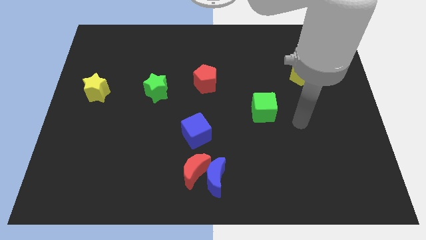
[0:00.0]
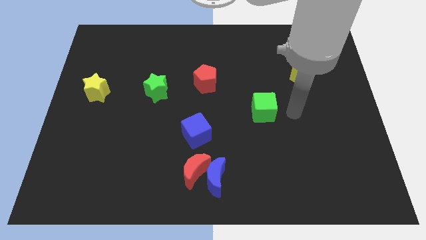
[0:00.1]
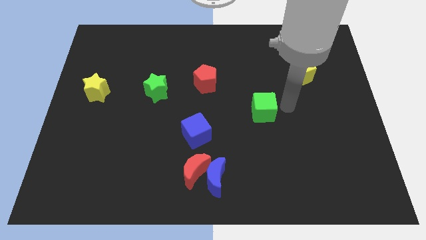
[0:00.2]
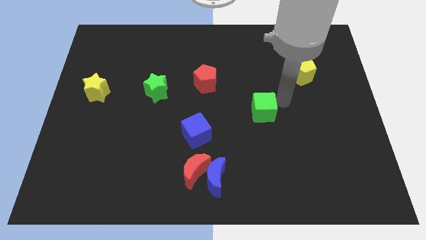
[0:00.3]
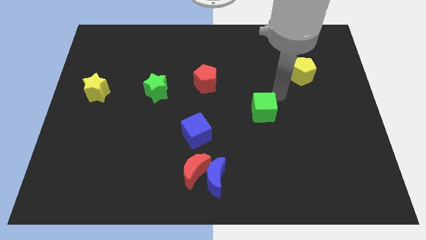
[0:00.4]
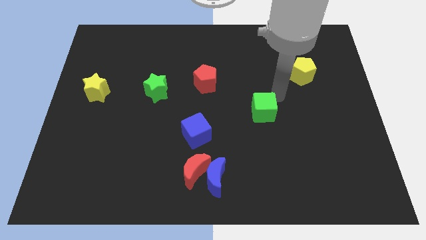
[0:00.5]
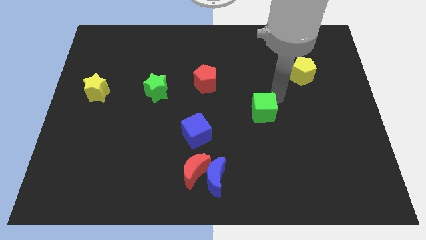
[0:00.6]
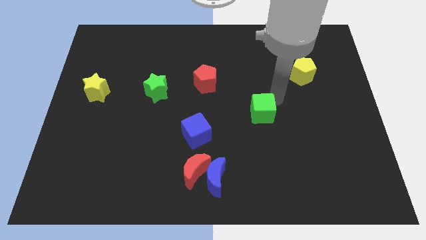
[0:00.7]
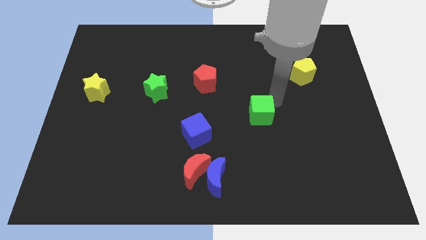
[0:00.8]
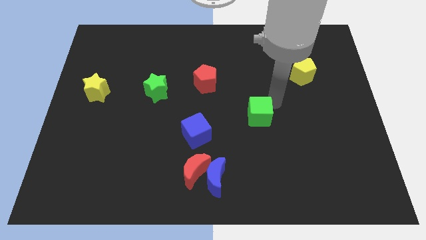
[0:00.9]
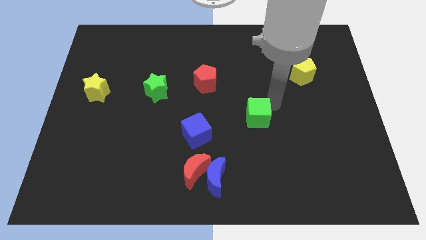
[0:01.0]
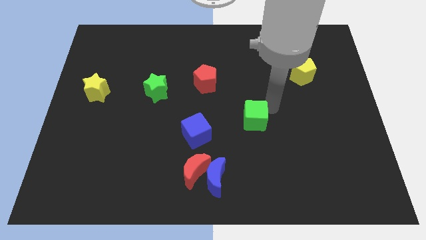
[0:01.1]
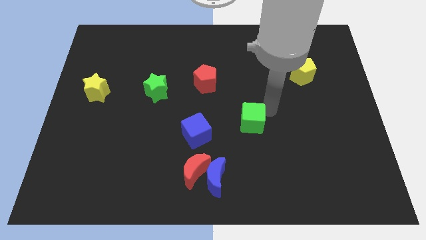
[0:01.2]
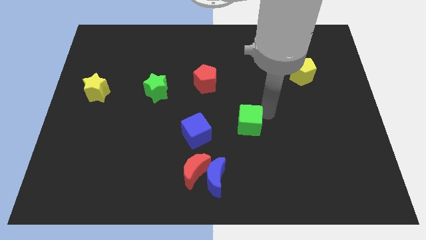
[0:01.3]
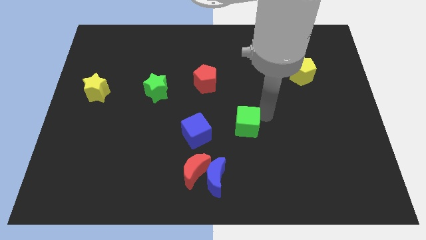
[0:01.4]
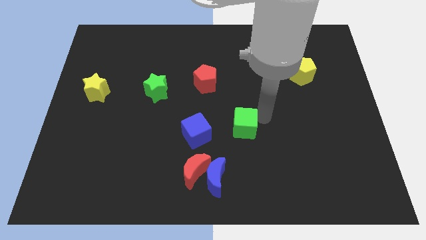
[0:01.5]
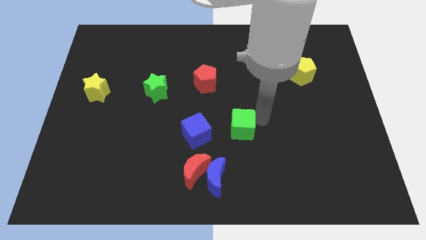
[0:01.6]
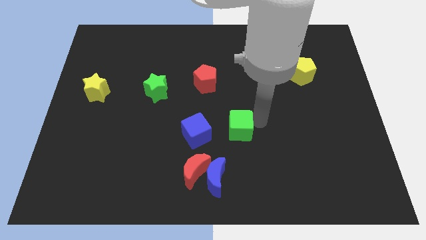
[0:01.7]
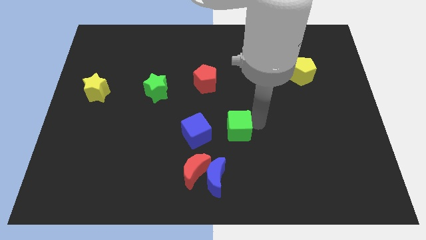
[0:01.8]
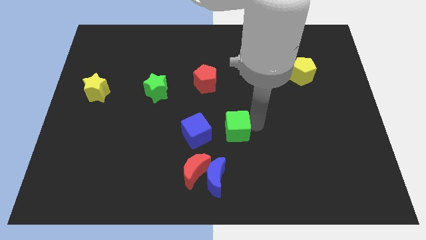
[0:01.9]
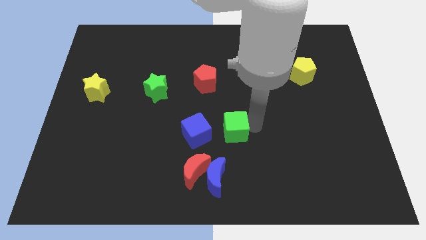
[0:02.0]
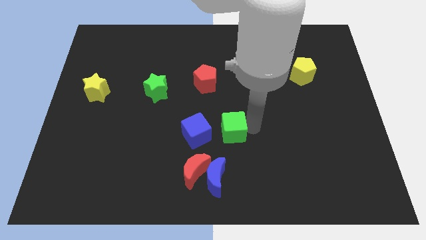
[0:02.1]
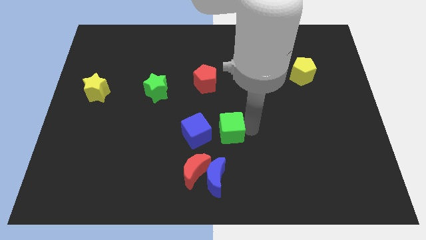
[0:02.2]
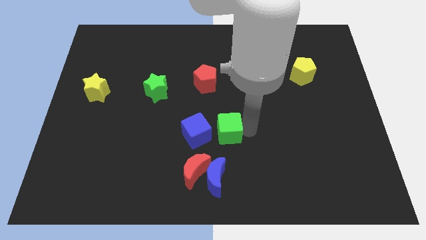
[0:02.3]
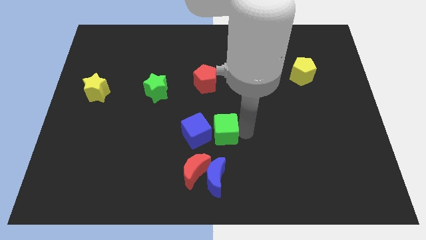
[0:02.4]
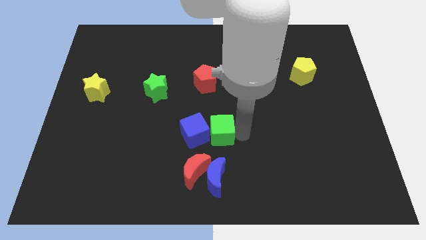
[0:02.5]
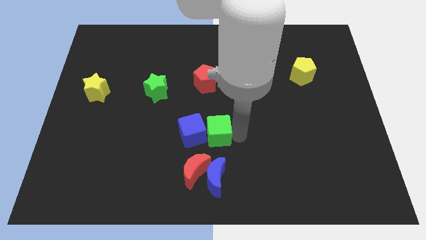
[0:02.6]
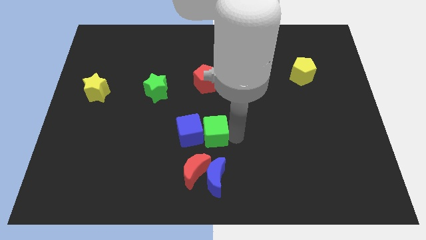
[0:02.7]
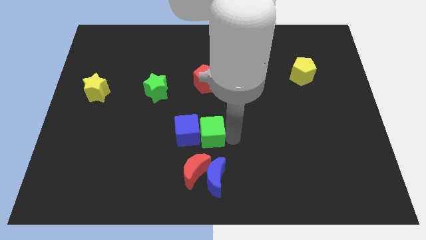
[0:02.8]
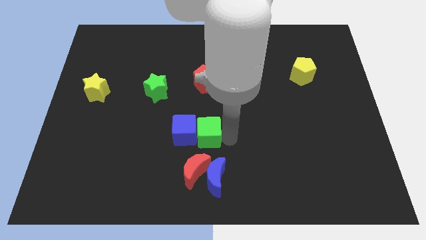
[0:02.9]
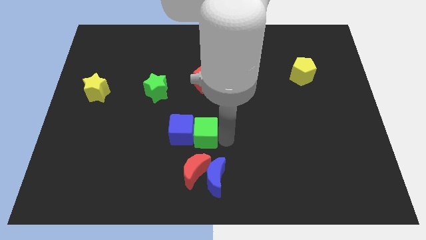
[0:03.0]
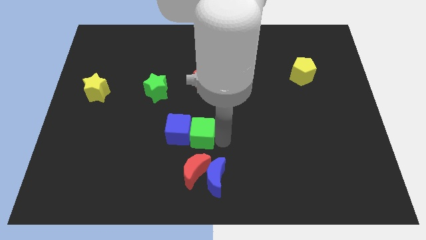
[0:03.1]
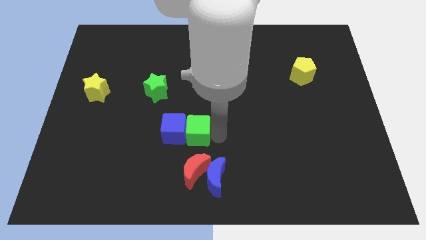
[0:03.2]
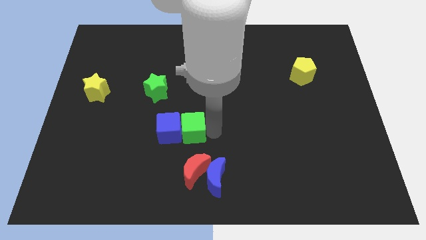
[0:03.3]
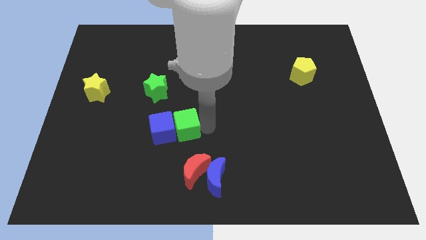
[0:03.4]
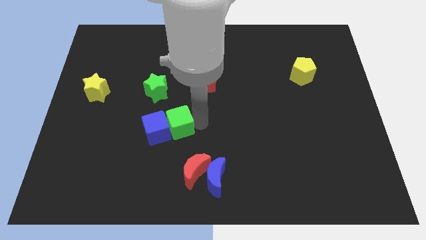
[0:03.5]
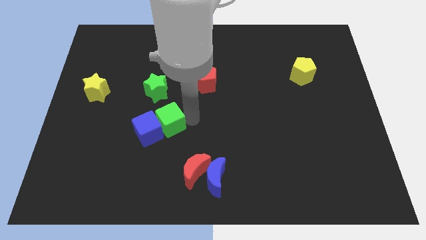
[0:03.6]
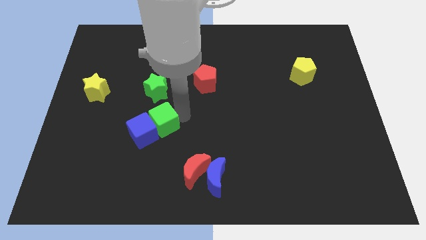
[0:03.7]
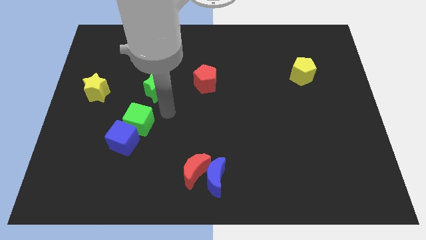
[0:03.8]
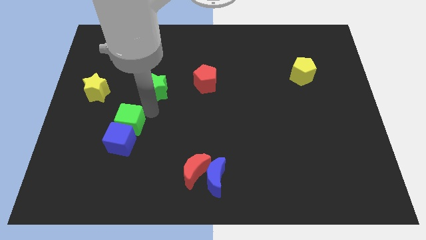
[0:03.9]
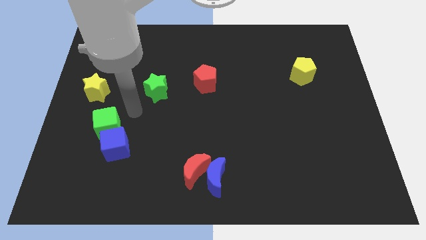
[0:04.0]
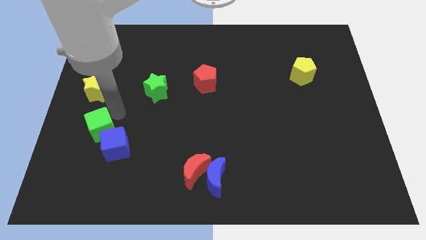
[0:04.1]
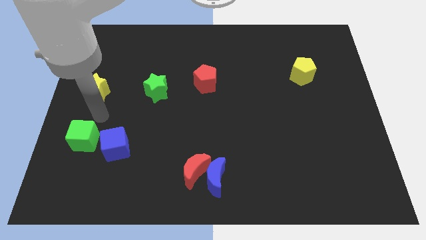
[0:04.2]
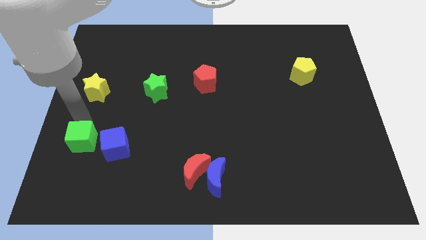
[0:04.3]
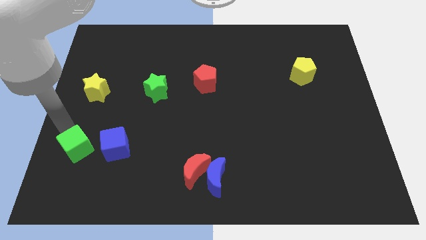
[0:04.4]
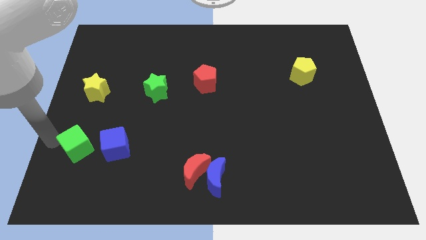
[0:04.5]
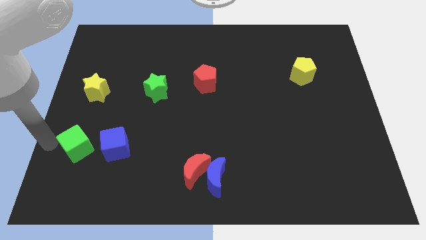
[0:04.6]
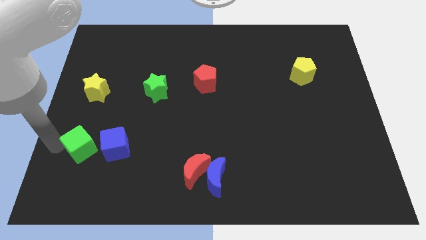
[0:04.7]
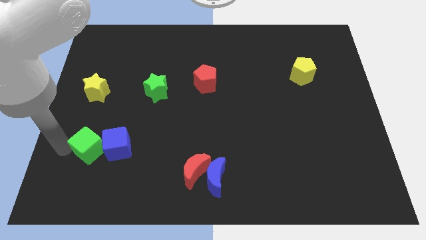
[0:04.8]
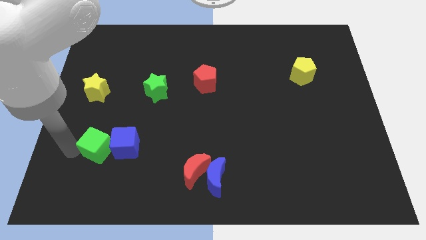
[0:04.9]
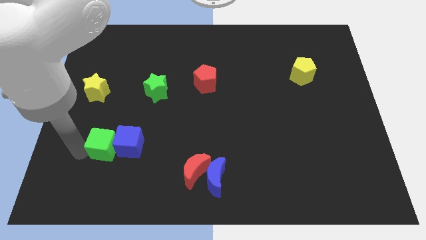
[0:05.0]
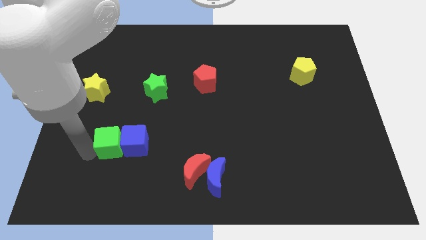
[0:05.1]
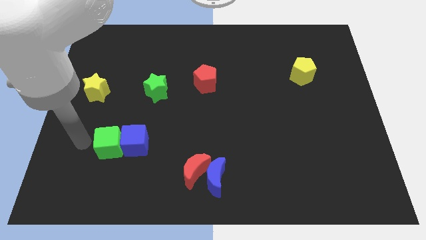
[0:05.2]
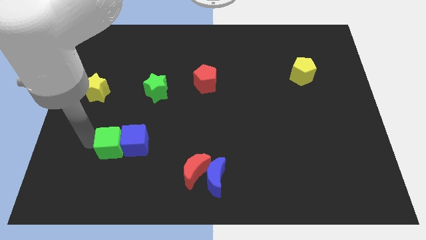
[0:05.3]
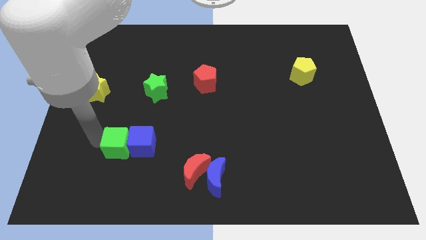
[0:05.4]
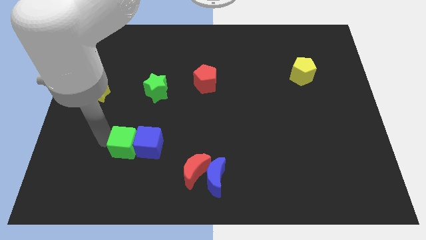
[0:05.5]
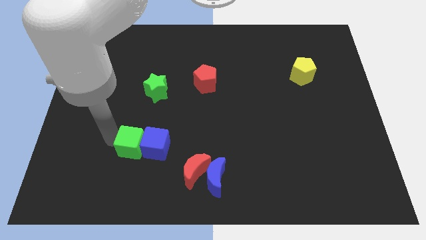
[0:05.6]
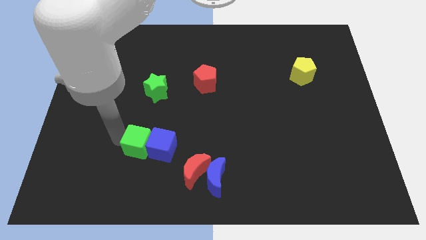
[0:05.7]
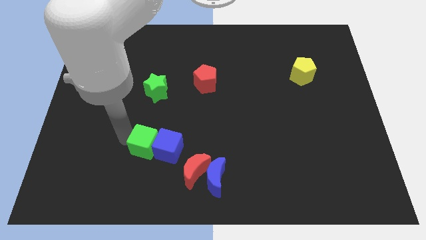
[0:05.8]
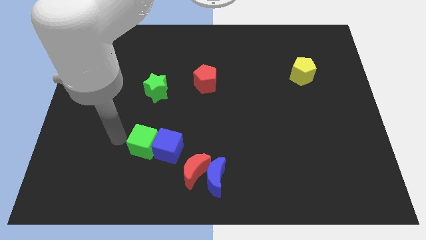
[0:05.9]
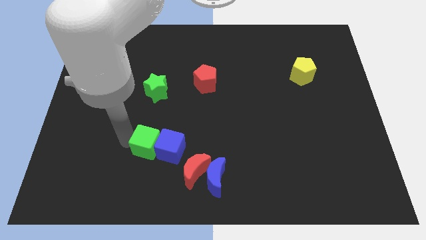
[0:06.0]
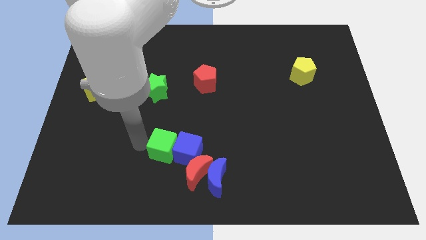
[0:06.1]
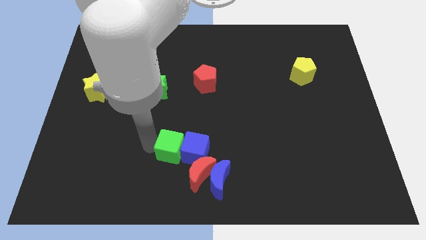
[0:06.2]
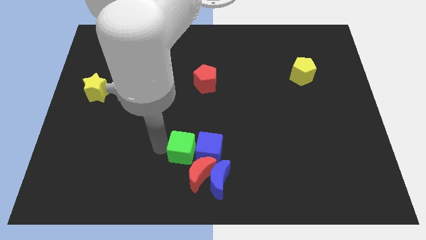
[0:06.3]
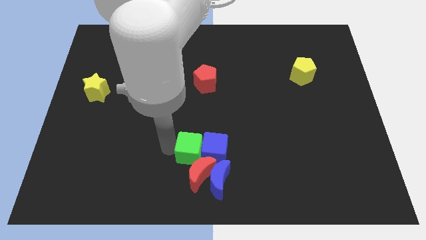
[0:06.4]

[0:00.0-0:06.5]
push the green cube close to the red moon

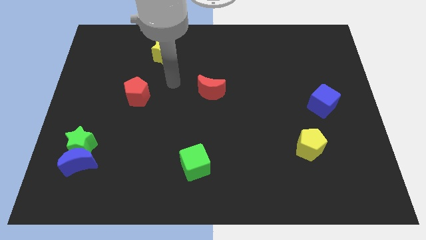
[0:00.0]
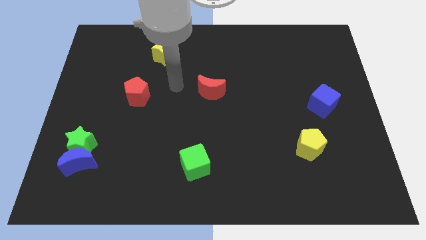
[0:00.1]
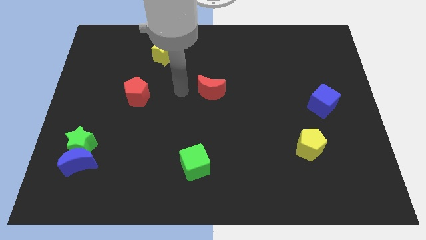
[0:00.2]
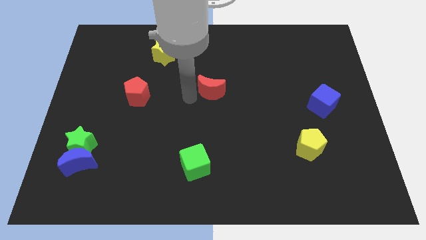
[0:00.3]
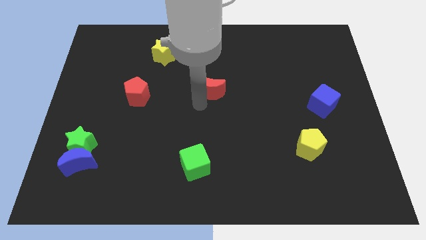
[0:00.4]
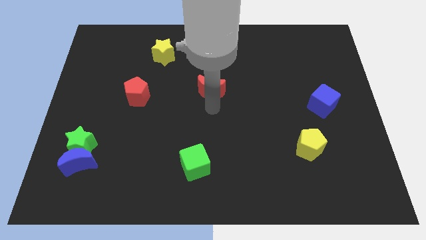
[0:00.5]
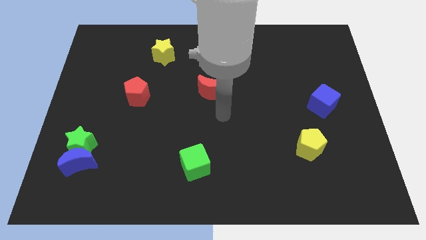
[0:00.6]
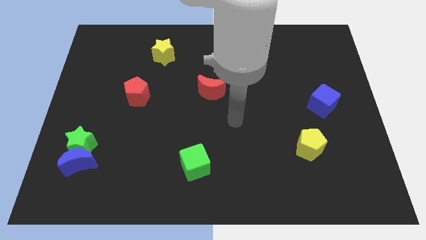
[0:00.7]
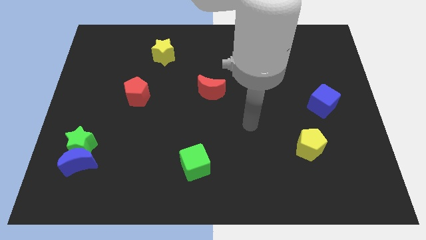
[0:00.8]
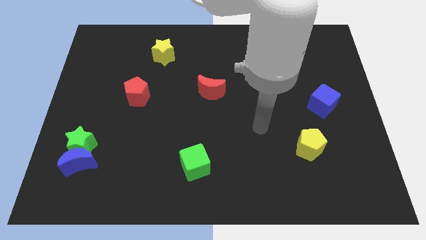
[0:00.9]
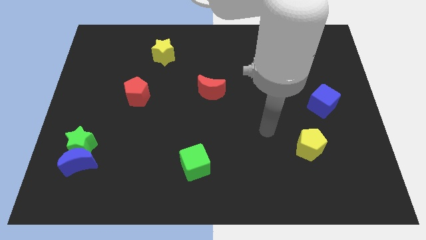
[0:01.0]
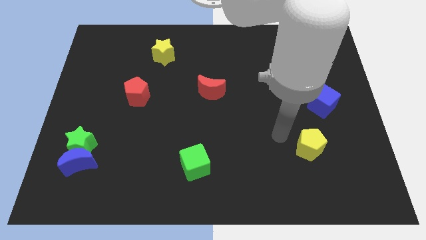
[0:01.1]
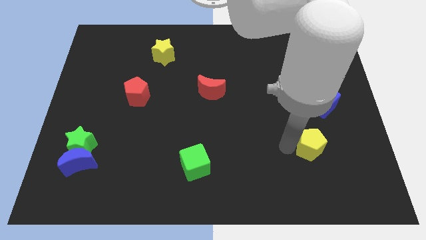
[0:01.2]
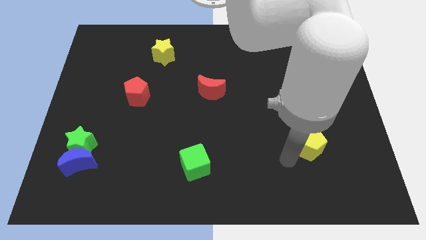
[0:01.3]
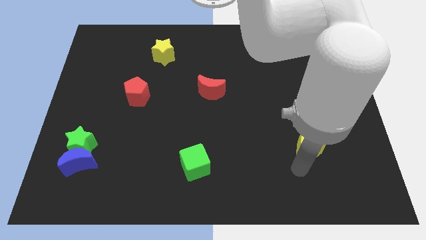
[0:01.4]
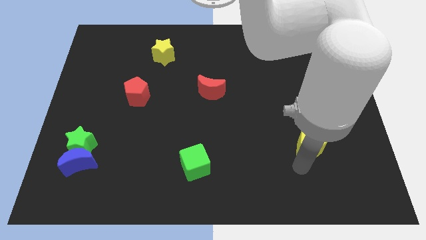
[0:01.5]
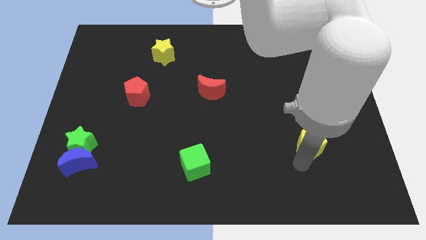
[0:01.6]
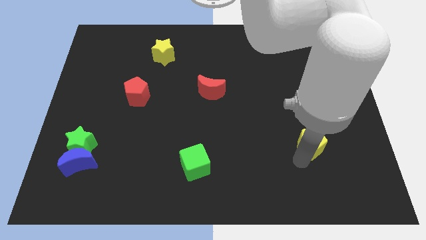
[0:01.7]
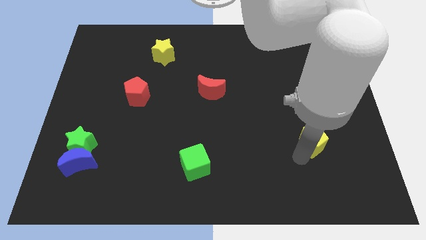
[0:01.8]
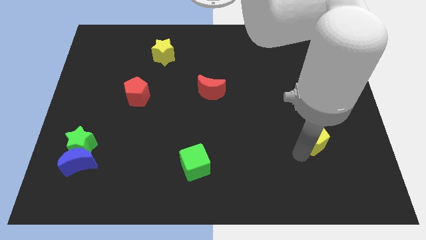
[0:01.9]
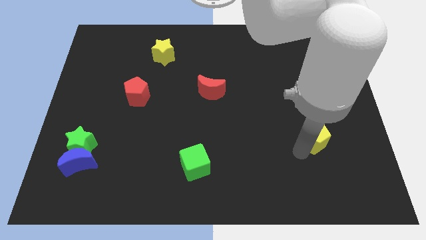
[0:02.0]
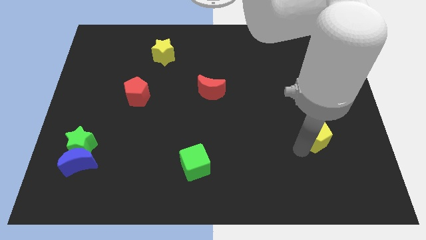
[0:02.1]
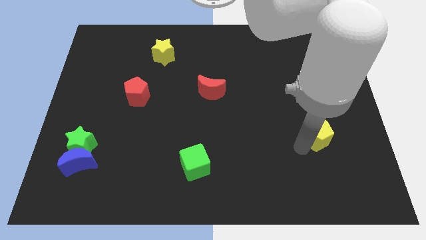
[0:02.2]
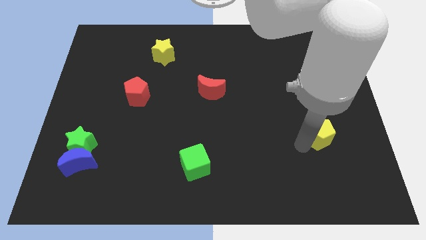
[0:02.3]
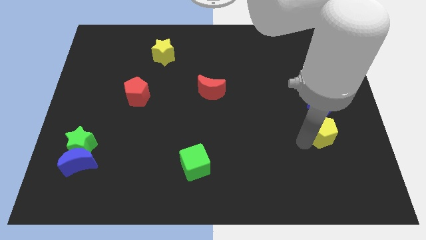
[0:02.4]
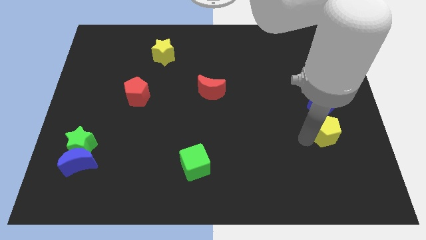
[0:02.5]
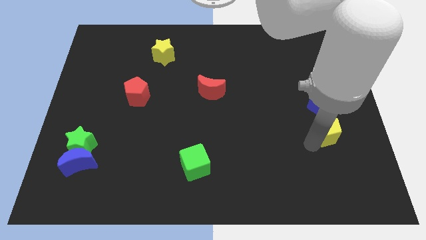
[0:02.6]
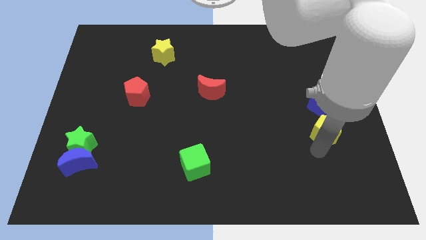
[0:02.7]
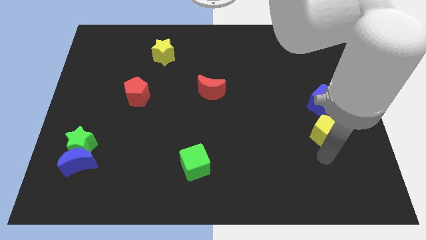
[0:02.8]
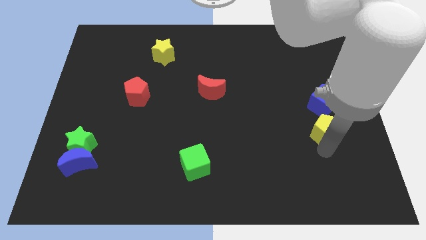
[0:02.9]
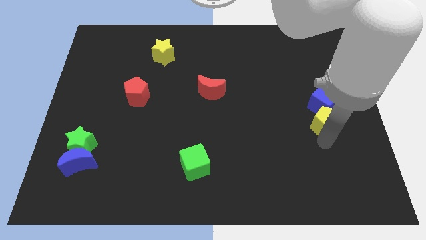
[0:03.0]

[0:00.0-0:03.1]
move the yellow pentagon next to the blue cube
